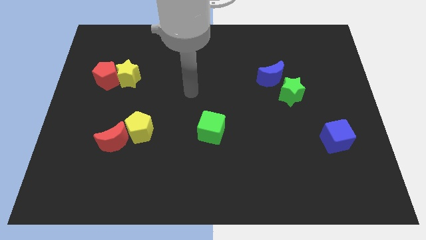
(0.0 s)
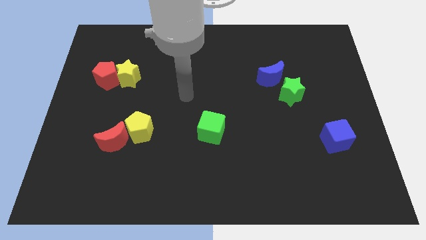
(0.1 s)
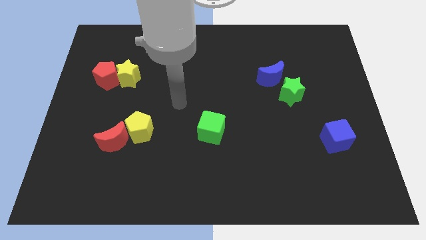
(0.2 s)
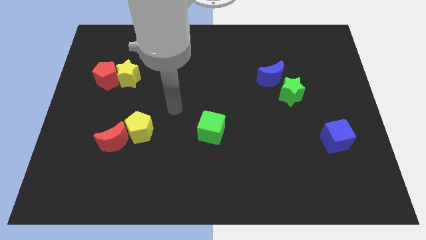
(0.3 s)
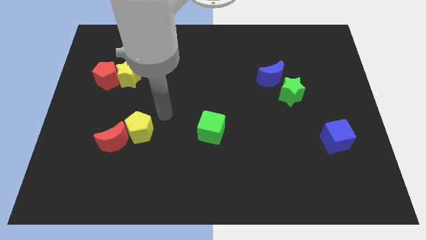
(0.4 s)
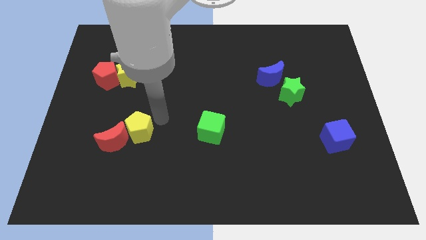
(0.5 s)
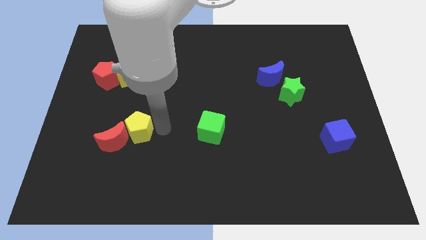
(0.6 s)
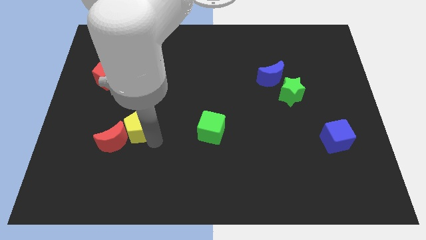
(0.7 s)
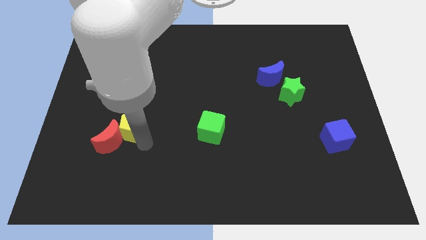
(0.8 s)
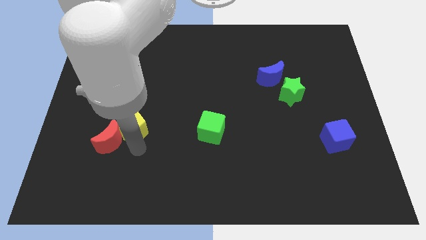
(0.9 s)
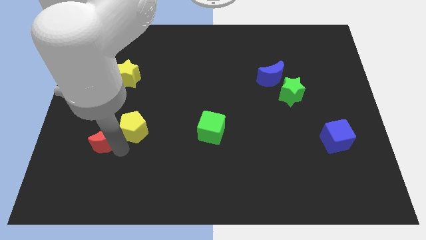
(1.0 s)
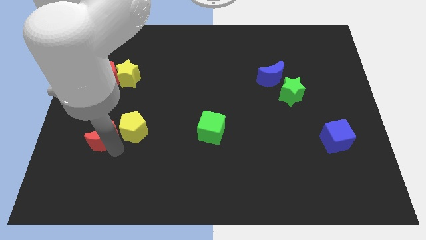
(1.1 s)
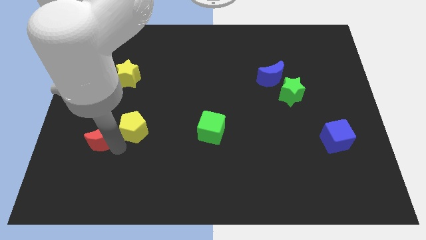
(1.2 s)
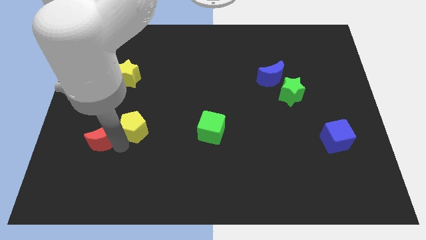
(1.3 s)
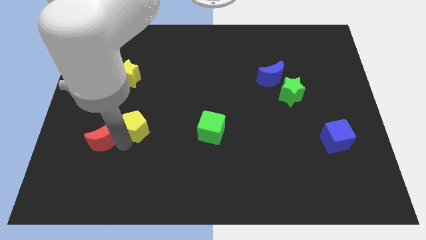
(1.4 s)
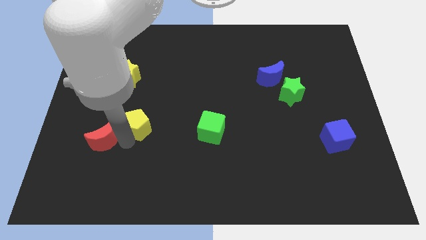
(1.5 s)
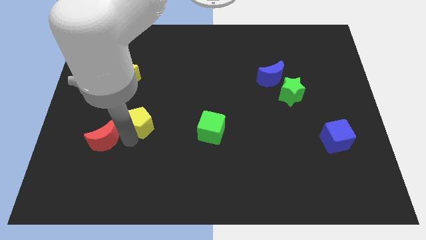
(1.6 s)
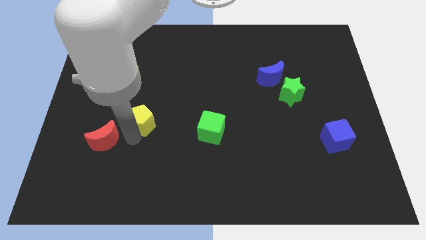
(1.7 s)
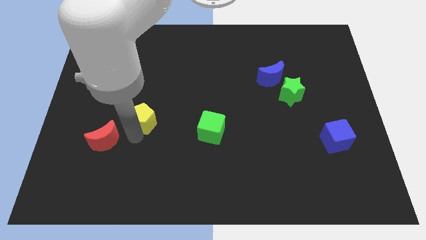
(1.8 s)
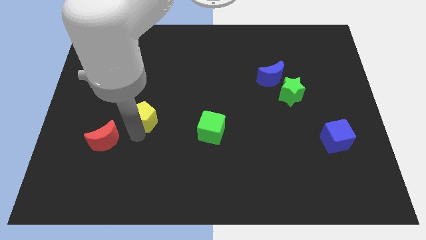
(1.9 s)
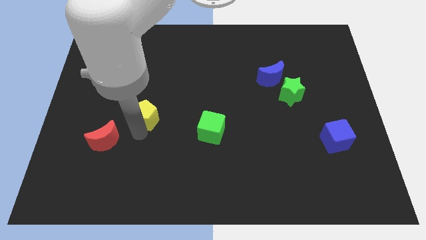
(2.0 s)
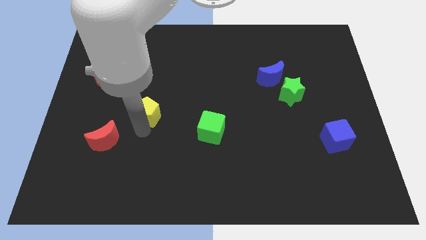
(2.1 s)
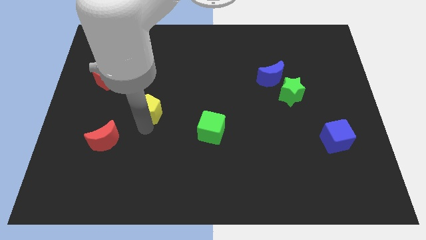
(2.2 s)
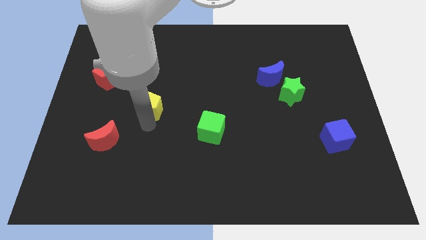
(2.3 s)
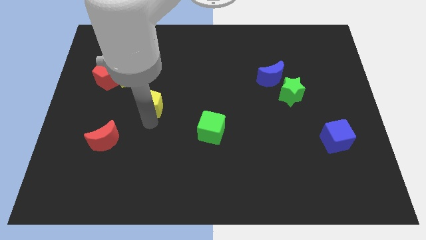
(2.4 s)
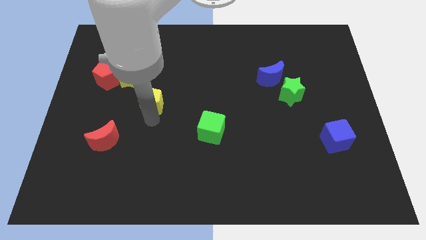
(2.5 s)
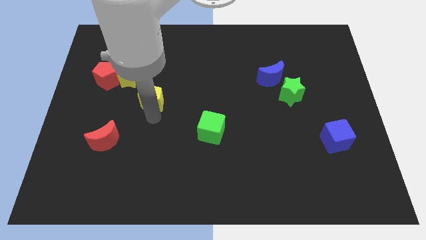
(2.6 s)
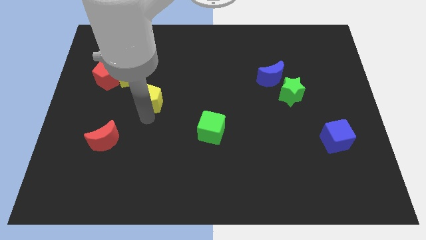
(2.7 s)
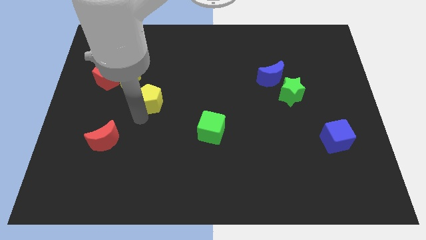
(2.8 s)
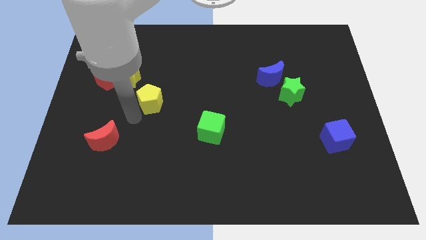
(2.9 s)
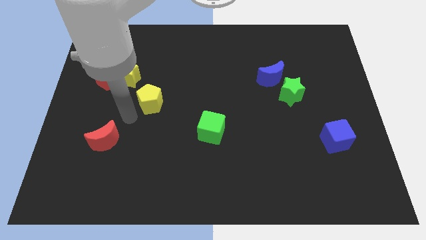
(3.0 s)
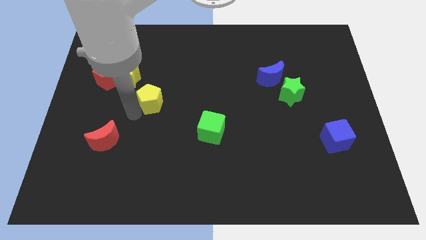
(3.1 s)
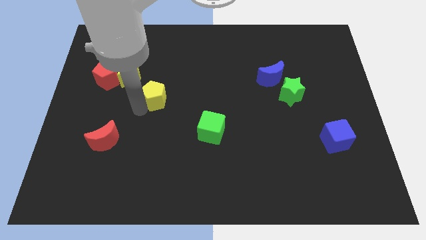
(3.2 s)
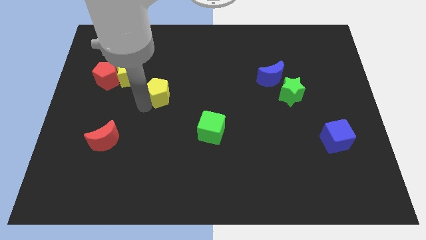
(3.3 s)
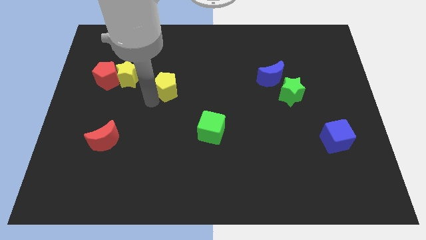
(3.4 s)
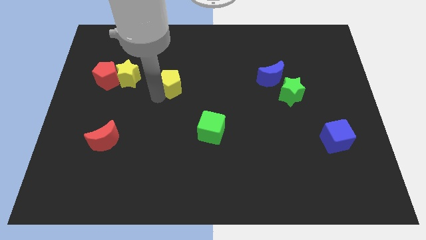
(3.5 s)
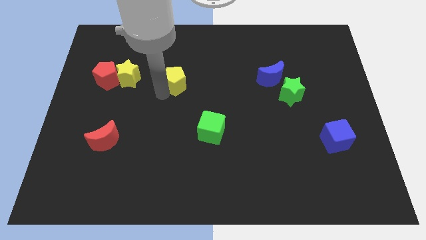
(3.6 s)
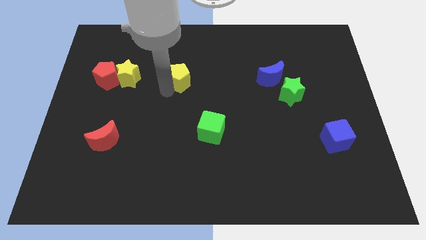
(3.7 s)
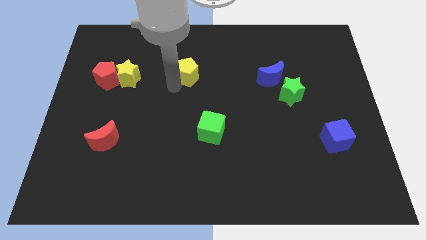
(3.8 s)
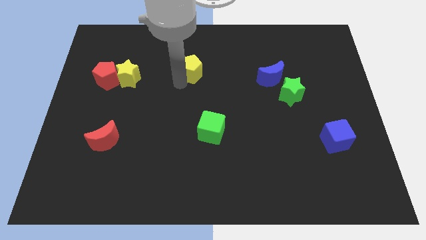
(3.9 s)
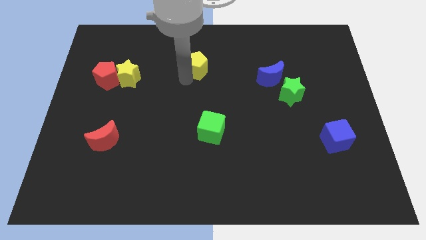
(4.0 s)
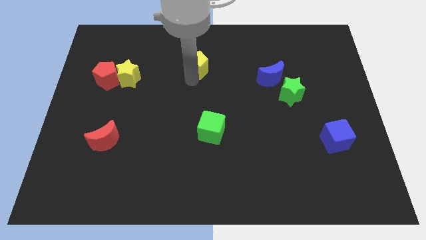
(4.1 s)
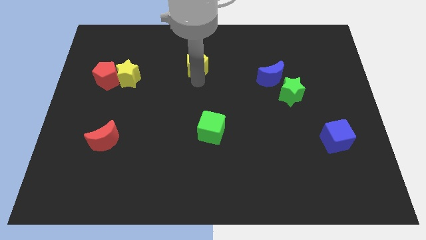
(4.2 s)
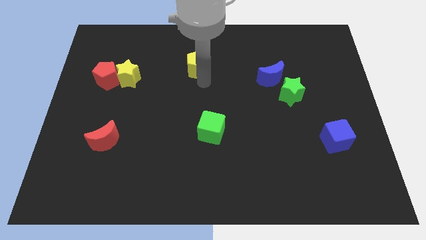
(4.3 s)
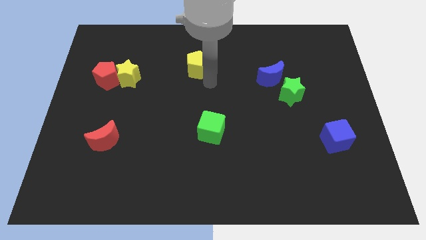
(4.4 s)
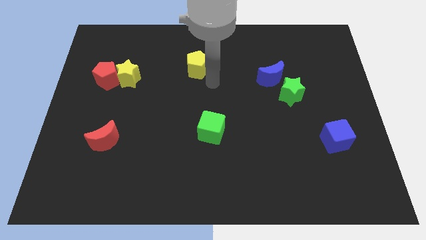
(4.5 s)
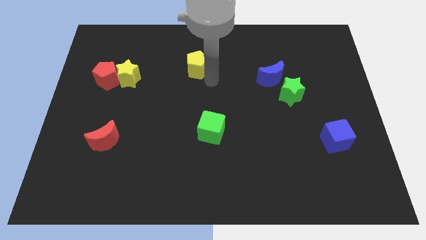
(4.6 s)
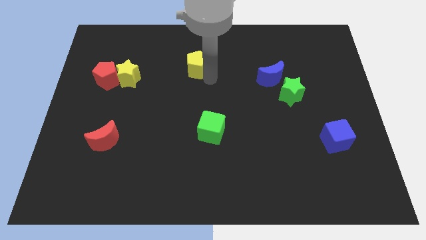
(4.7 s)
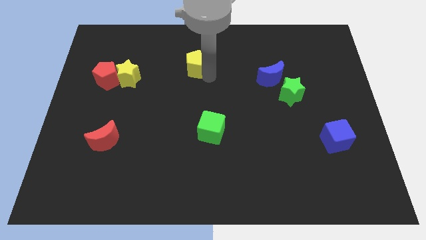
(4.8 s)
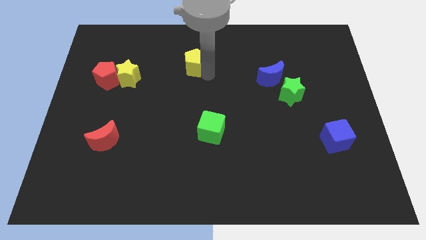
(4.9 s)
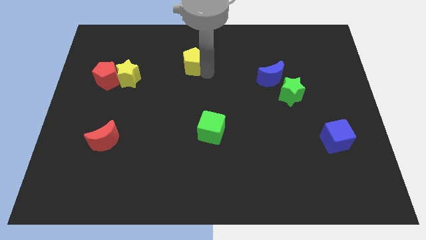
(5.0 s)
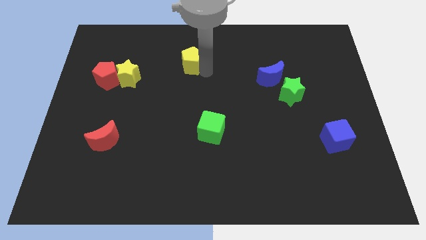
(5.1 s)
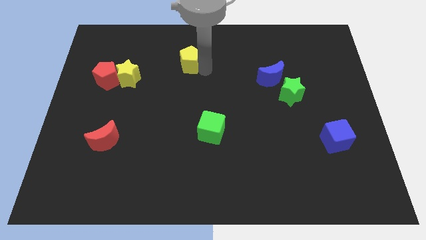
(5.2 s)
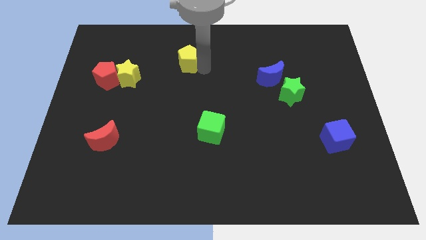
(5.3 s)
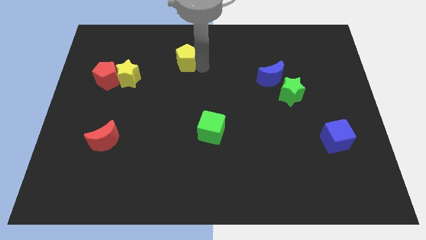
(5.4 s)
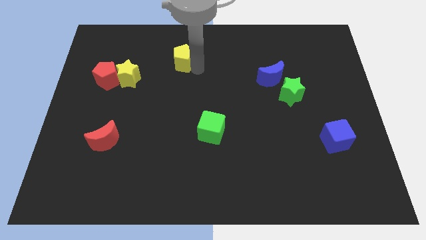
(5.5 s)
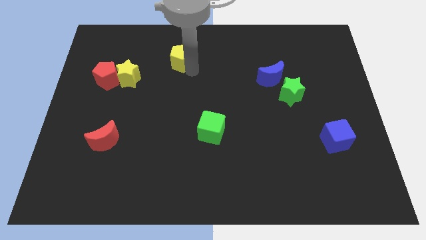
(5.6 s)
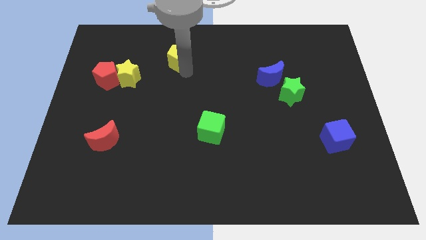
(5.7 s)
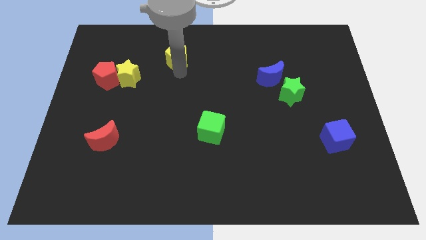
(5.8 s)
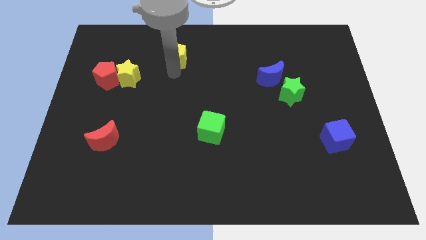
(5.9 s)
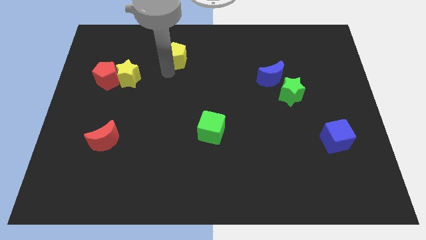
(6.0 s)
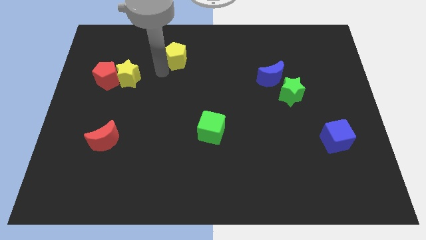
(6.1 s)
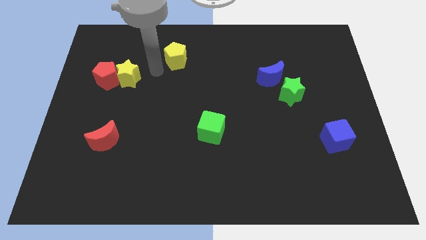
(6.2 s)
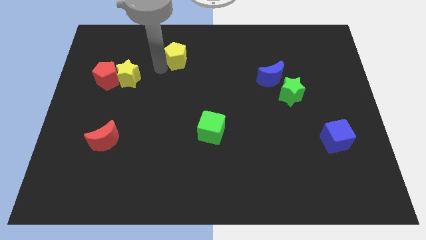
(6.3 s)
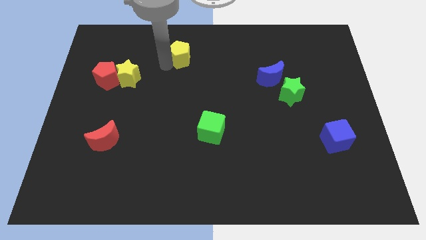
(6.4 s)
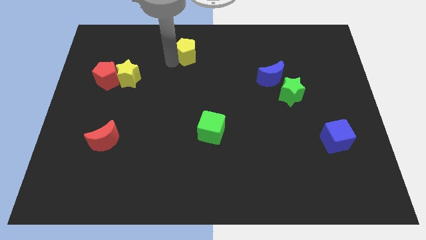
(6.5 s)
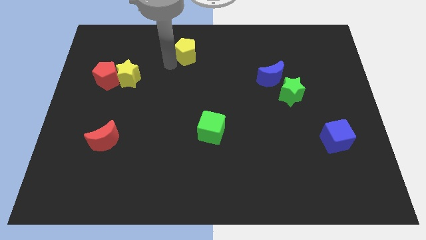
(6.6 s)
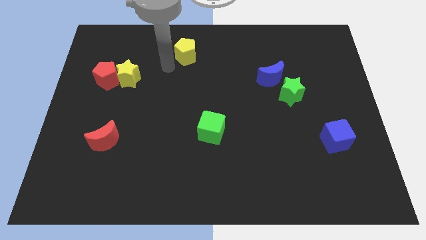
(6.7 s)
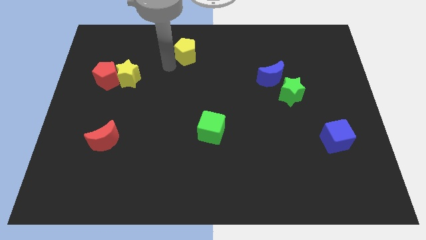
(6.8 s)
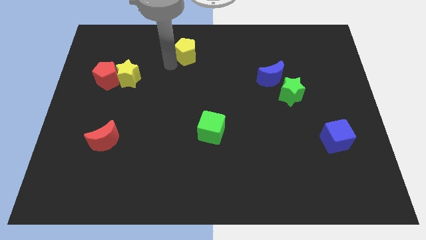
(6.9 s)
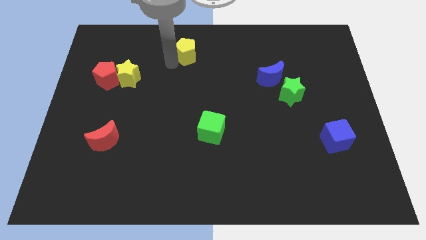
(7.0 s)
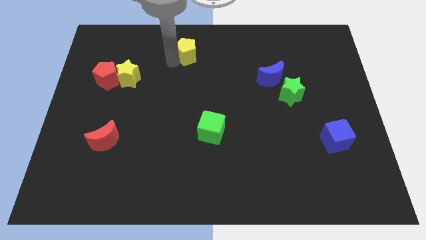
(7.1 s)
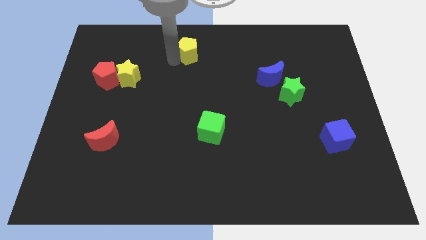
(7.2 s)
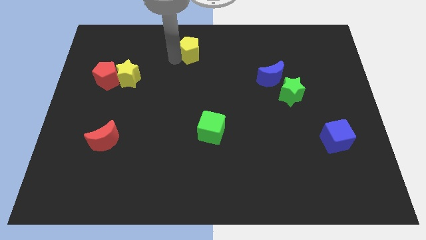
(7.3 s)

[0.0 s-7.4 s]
slide the yellow pentagon to the towards your base

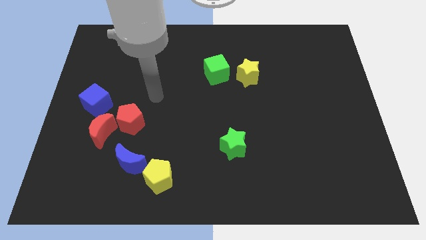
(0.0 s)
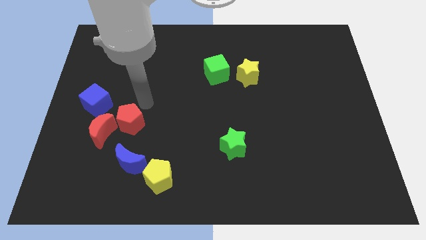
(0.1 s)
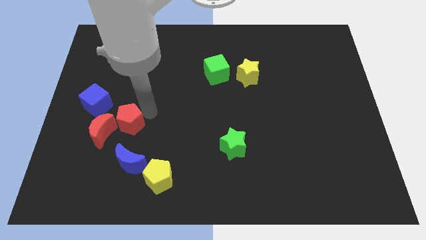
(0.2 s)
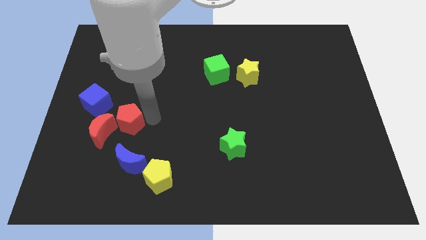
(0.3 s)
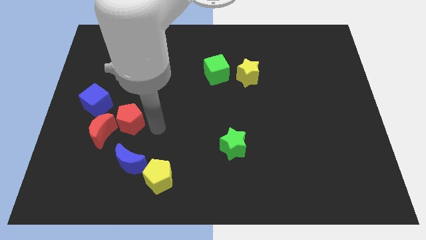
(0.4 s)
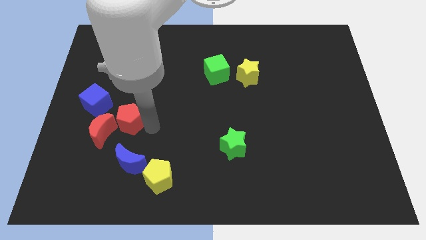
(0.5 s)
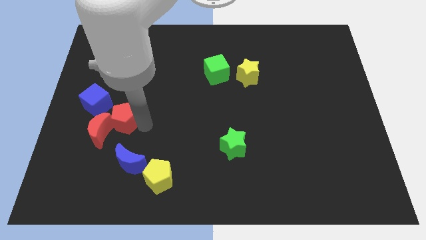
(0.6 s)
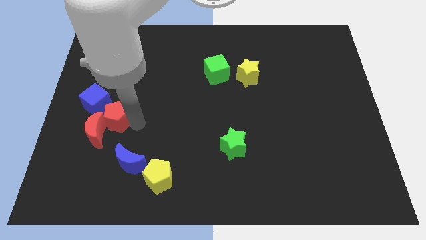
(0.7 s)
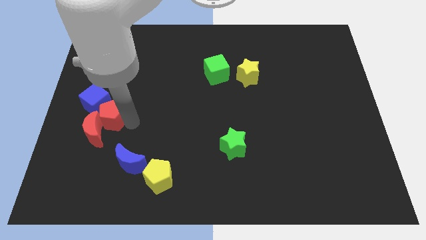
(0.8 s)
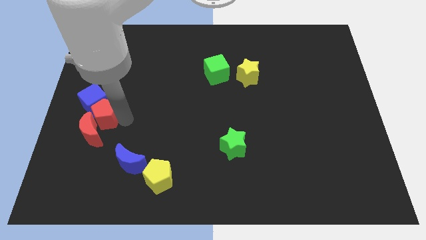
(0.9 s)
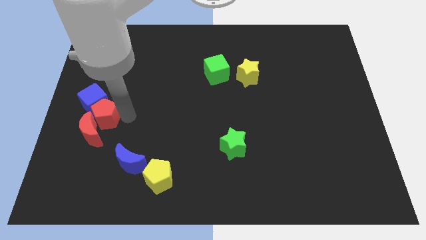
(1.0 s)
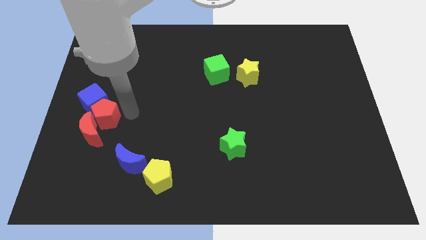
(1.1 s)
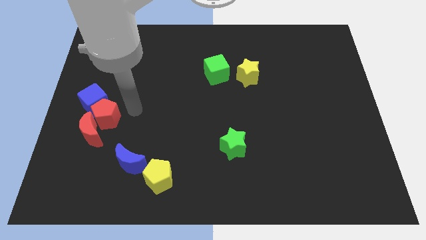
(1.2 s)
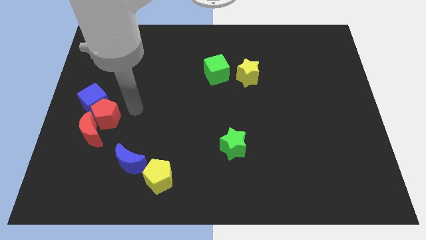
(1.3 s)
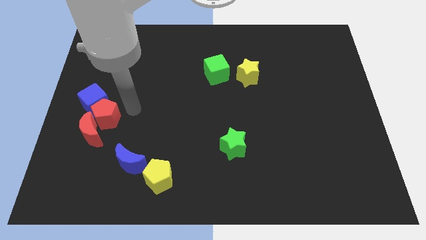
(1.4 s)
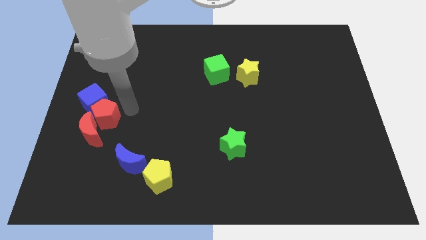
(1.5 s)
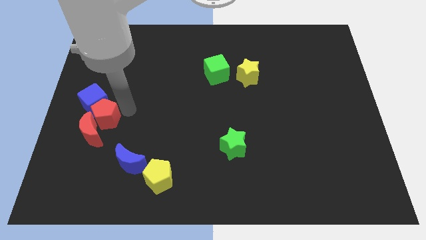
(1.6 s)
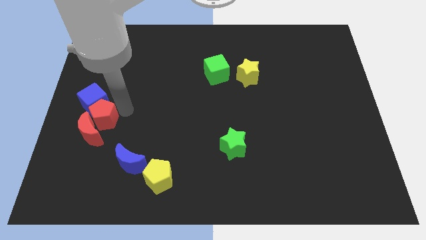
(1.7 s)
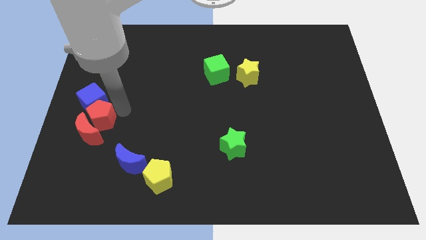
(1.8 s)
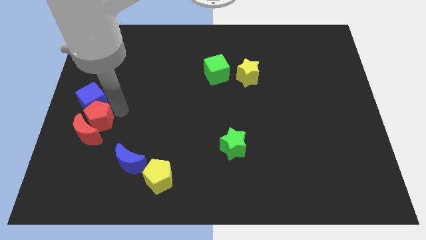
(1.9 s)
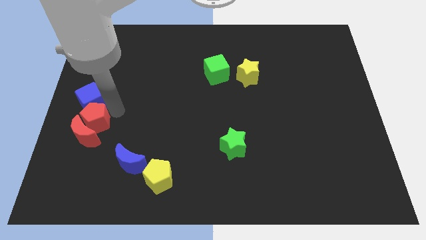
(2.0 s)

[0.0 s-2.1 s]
push the red pentagon to the left side of the board
